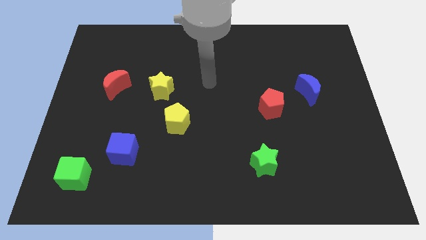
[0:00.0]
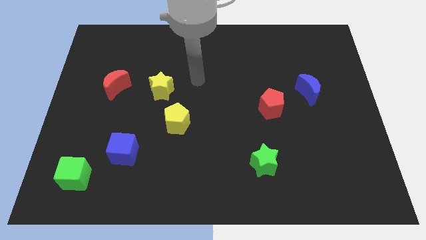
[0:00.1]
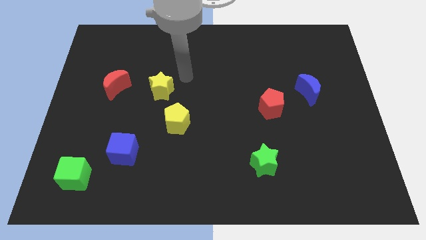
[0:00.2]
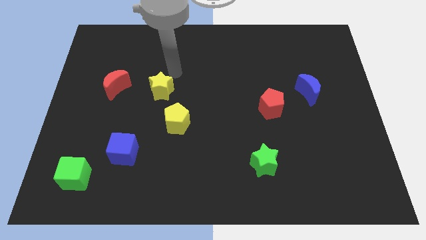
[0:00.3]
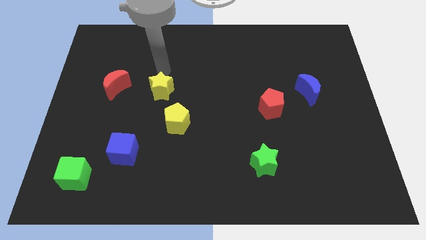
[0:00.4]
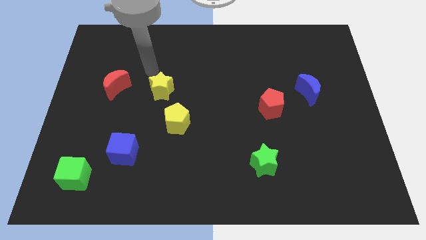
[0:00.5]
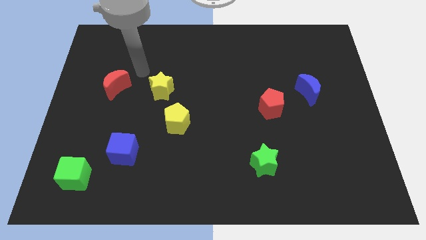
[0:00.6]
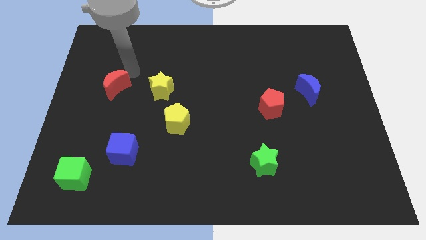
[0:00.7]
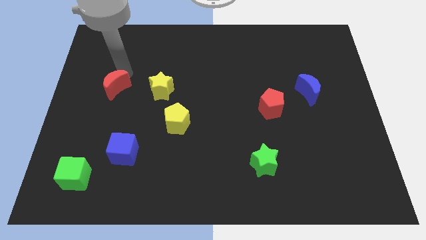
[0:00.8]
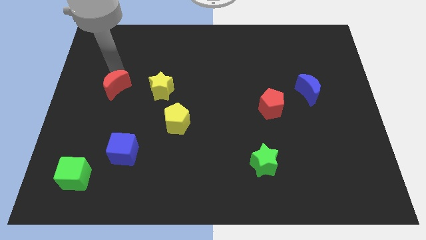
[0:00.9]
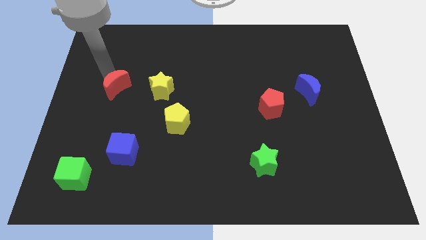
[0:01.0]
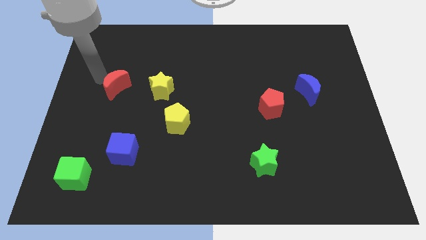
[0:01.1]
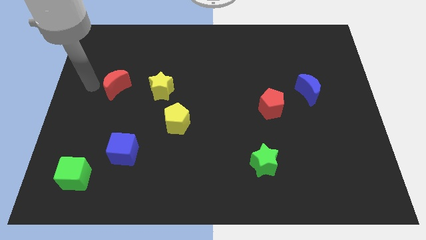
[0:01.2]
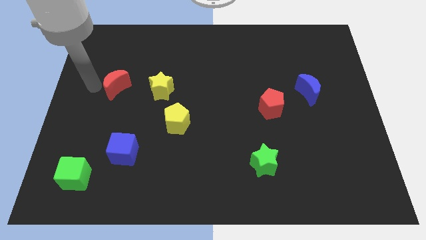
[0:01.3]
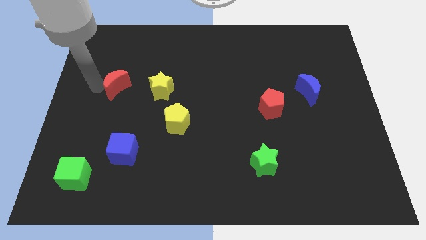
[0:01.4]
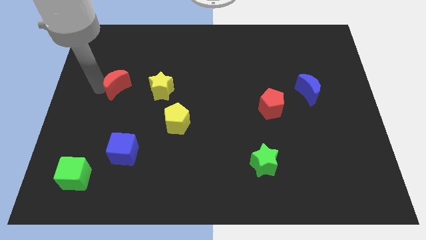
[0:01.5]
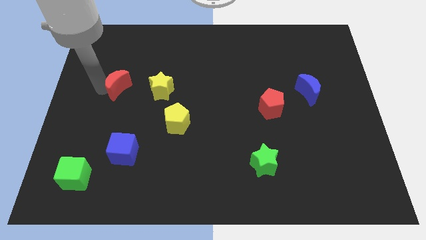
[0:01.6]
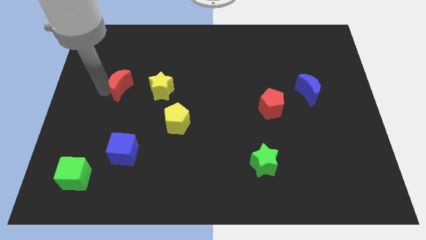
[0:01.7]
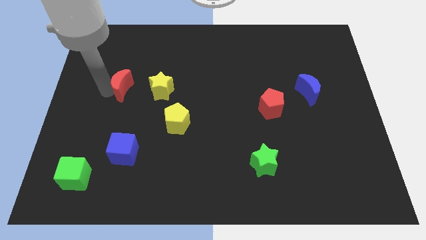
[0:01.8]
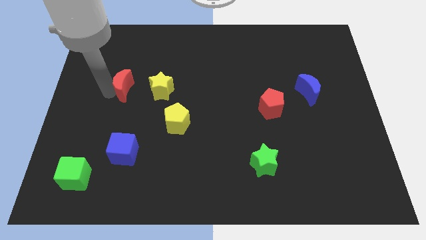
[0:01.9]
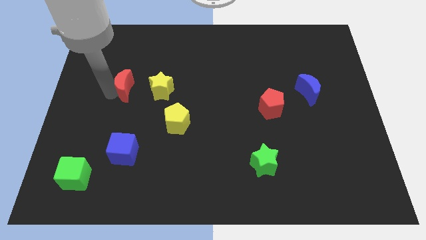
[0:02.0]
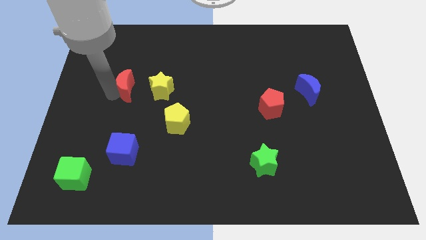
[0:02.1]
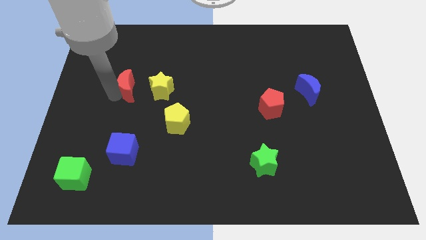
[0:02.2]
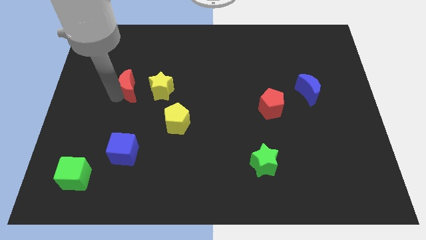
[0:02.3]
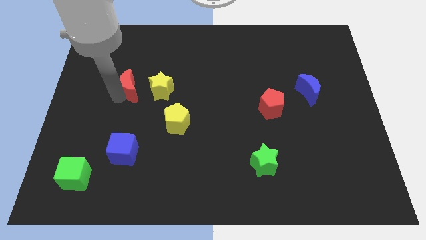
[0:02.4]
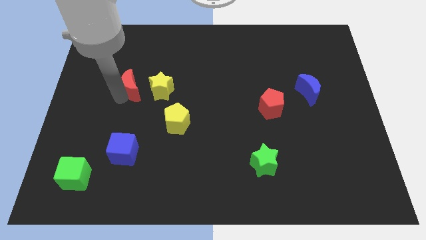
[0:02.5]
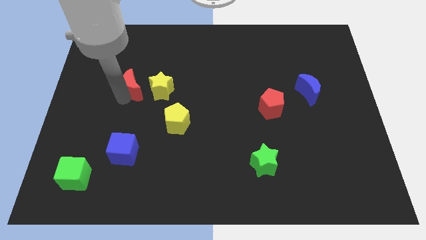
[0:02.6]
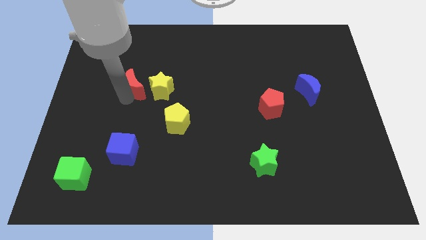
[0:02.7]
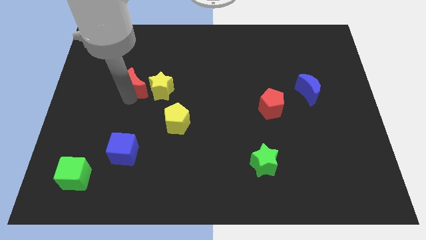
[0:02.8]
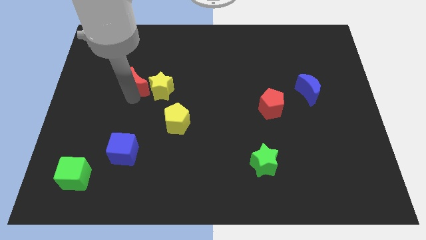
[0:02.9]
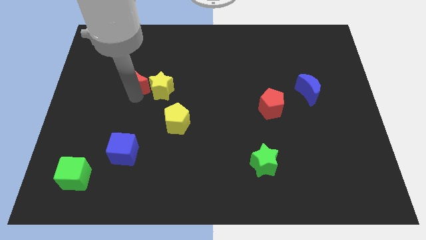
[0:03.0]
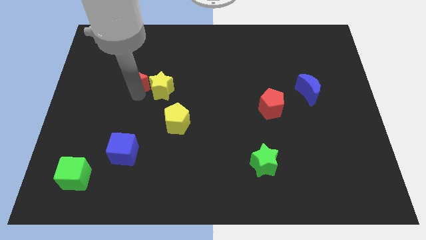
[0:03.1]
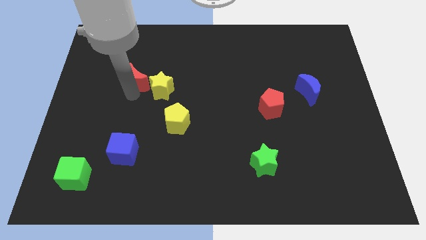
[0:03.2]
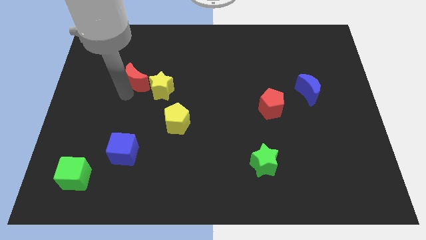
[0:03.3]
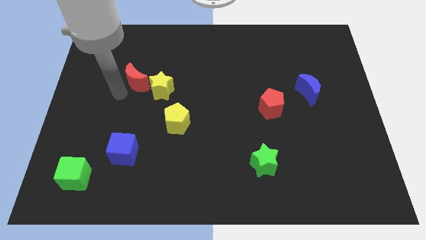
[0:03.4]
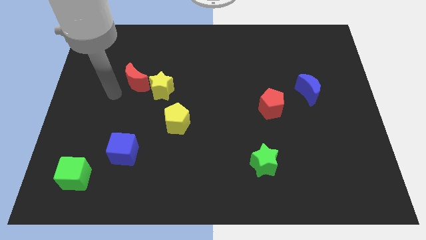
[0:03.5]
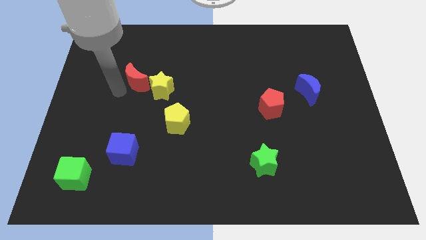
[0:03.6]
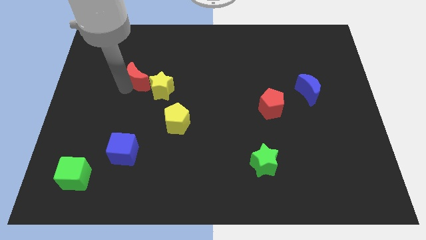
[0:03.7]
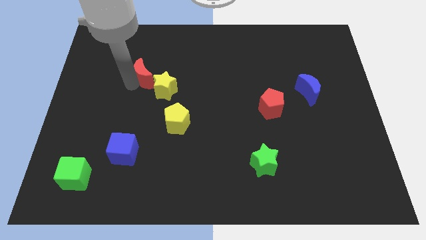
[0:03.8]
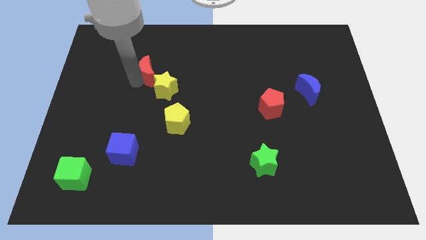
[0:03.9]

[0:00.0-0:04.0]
slide the red moon somewhat to the right

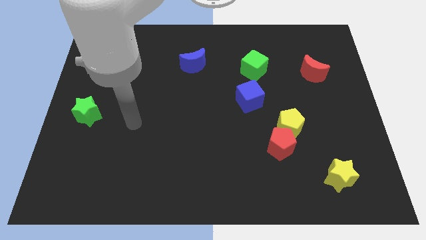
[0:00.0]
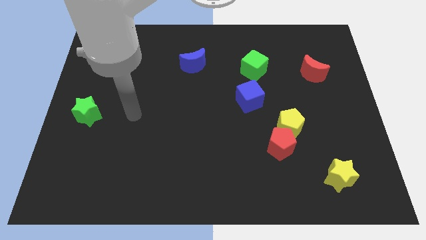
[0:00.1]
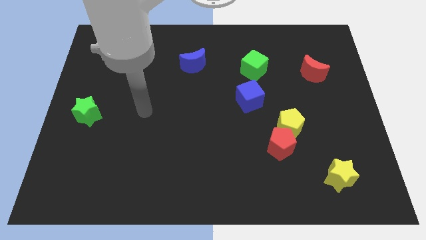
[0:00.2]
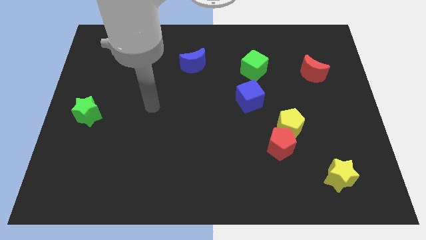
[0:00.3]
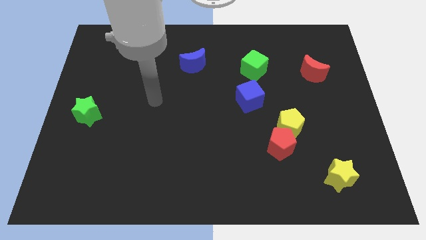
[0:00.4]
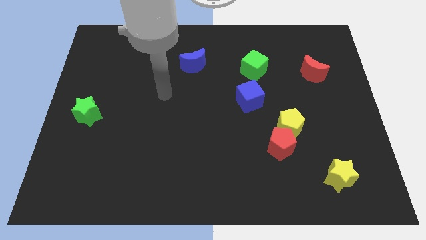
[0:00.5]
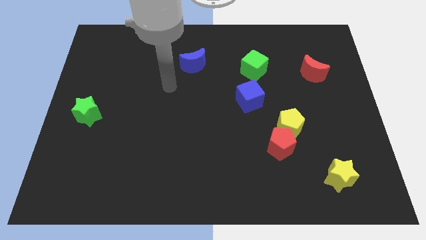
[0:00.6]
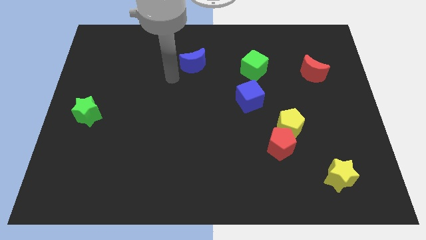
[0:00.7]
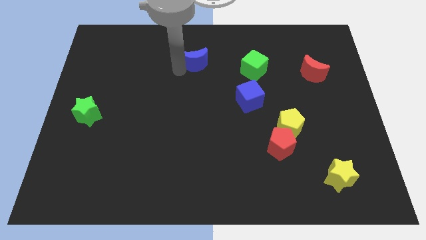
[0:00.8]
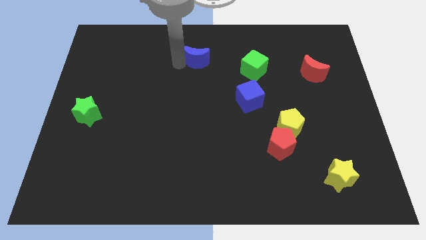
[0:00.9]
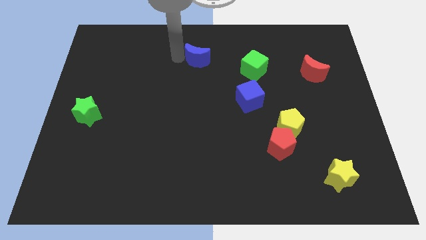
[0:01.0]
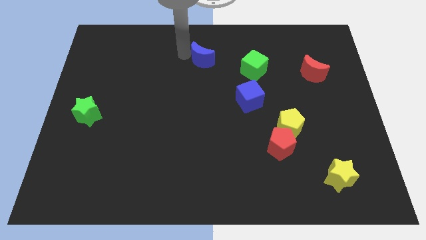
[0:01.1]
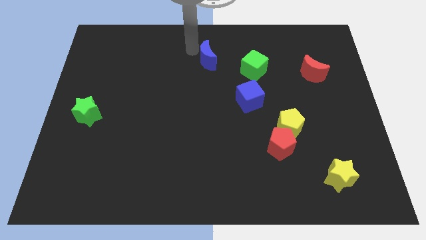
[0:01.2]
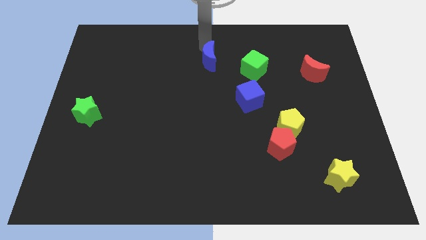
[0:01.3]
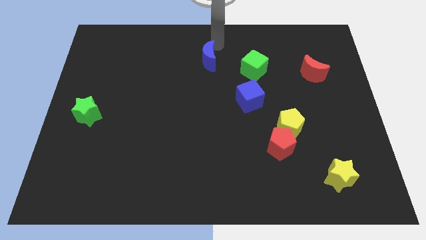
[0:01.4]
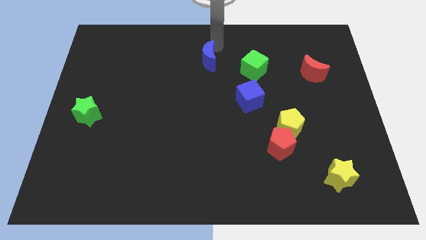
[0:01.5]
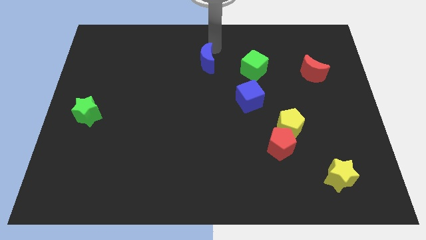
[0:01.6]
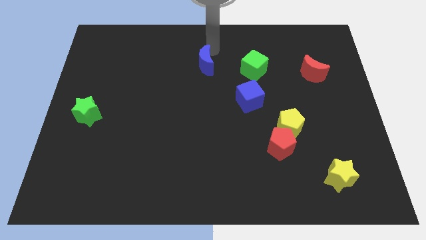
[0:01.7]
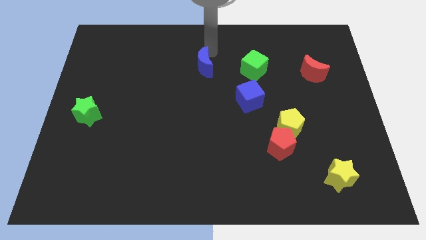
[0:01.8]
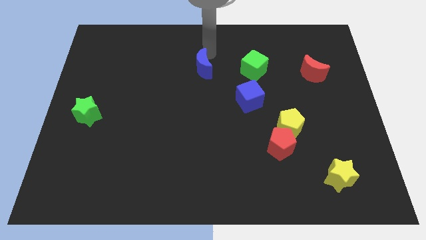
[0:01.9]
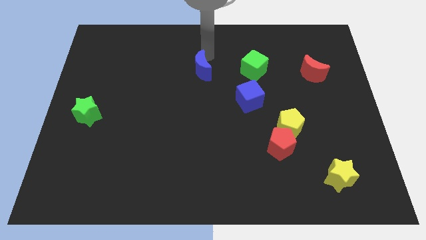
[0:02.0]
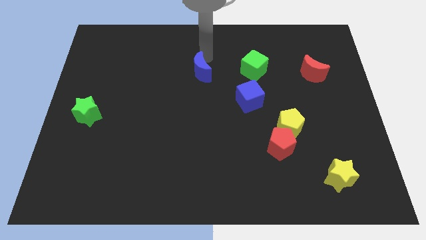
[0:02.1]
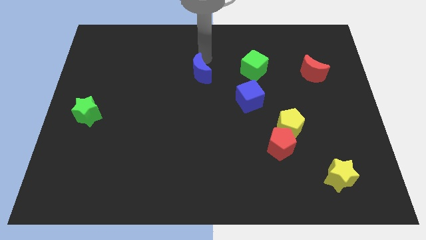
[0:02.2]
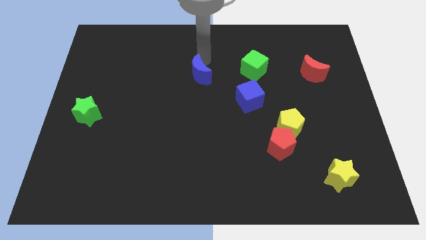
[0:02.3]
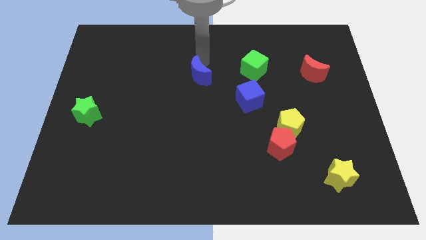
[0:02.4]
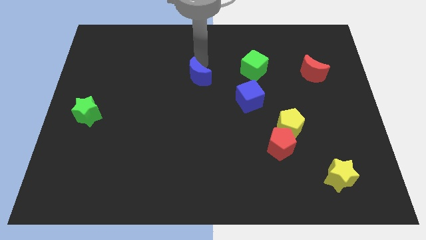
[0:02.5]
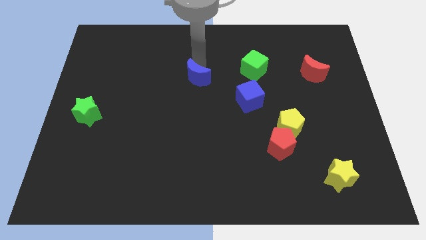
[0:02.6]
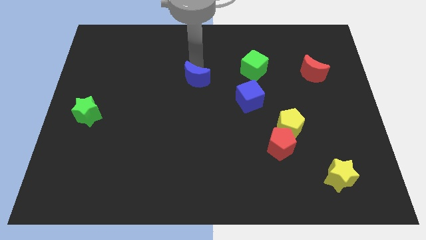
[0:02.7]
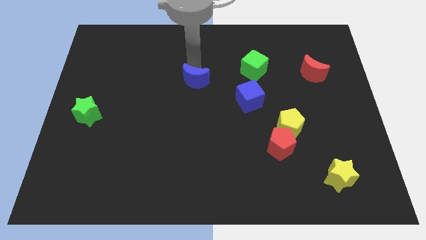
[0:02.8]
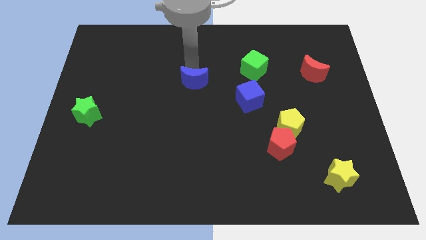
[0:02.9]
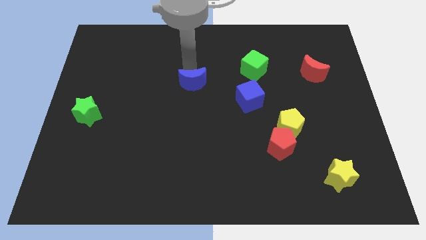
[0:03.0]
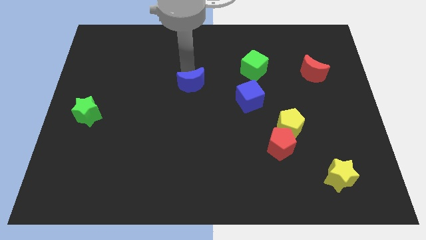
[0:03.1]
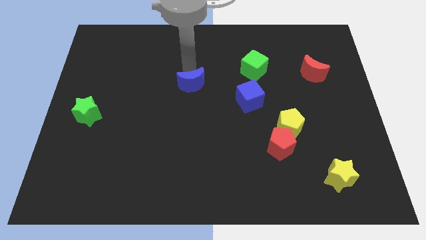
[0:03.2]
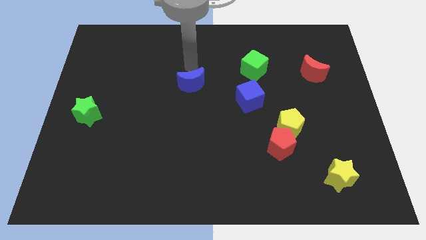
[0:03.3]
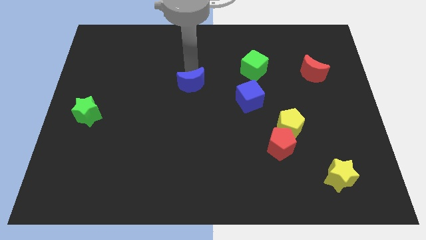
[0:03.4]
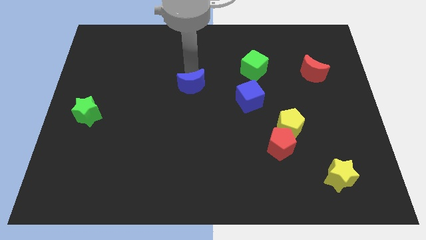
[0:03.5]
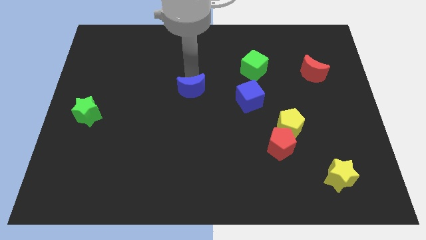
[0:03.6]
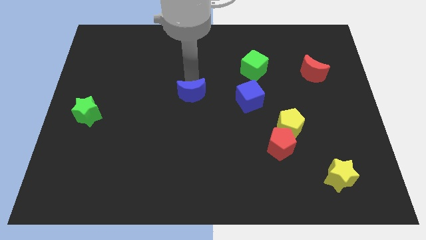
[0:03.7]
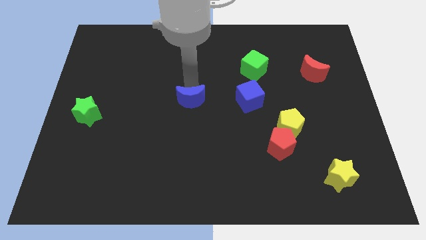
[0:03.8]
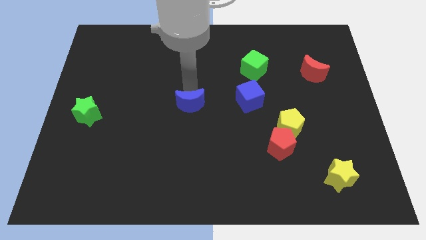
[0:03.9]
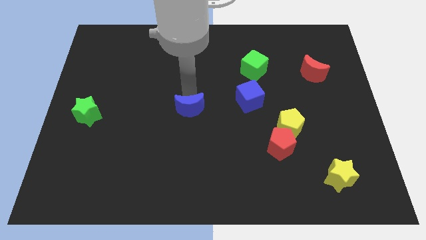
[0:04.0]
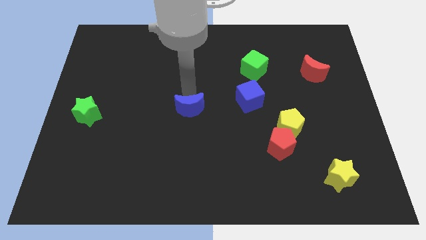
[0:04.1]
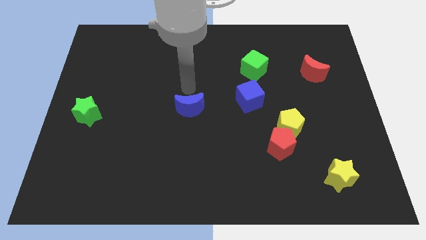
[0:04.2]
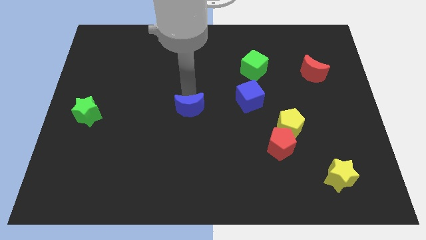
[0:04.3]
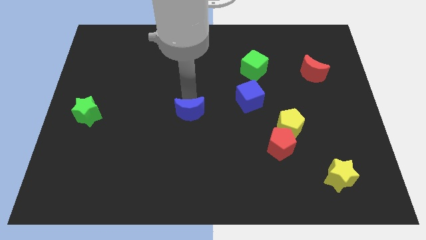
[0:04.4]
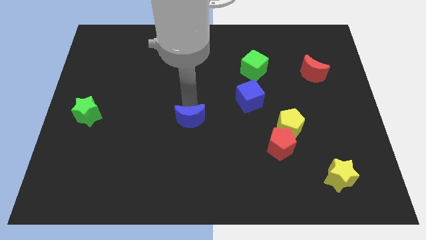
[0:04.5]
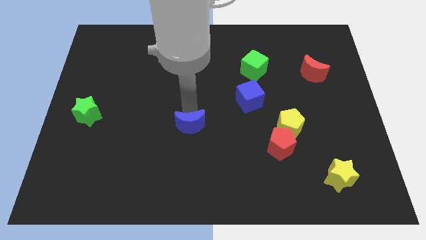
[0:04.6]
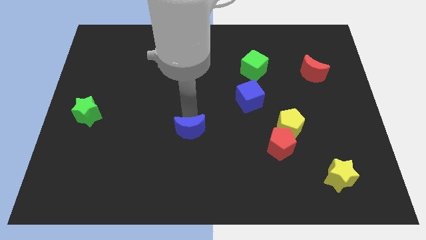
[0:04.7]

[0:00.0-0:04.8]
move the blue moon down
